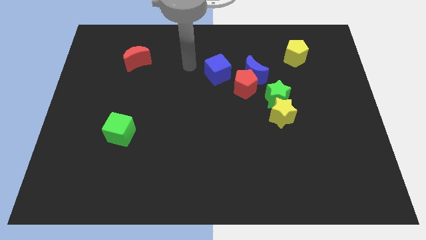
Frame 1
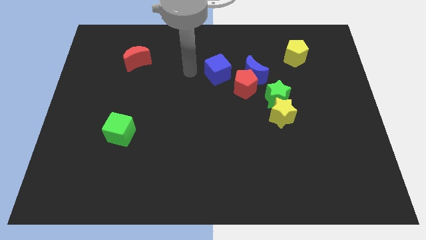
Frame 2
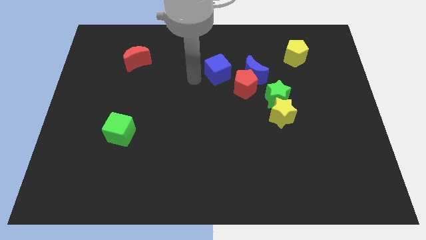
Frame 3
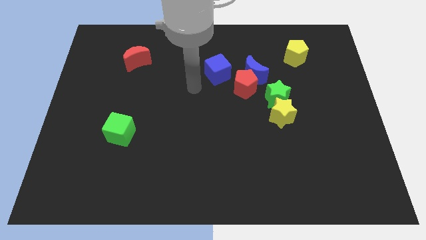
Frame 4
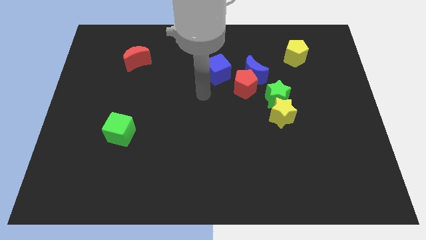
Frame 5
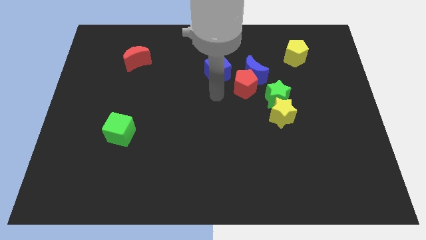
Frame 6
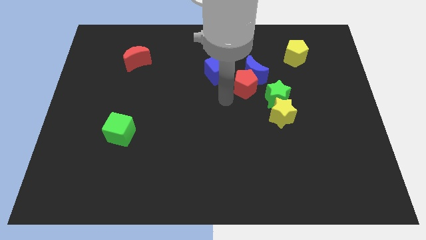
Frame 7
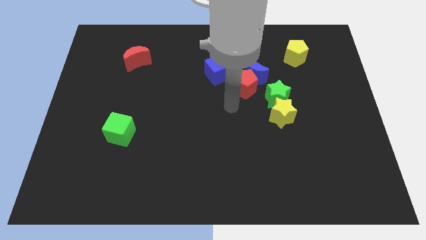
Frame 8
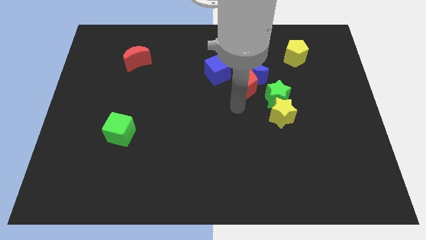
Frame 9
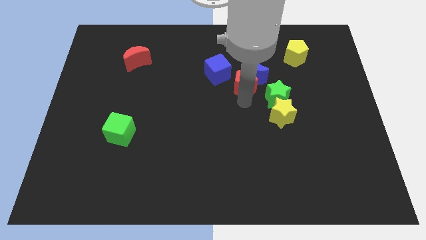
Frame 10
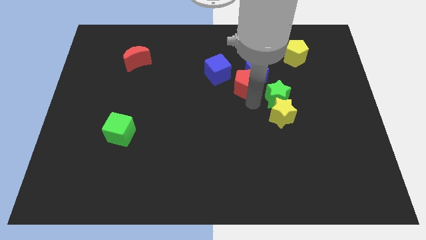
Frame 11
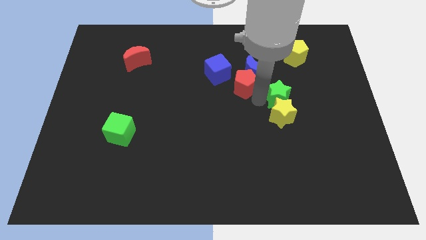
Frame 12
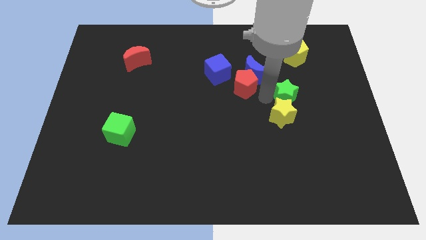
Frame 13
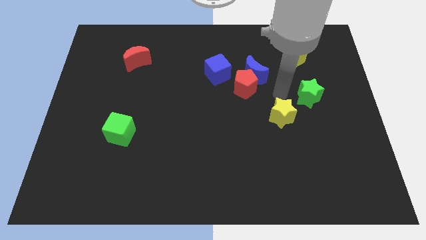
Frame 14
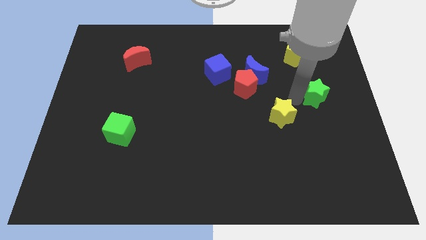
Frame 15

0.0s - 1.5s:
move the yellow star away from the green star

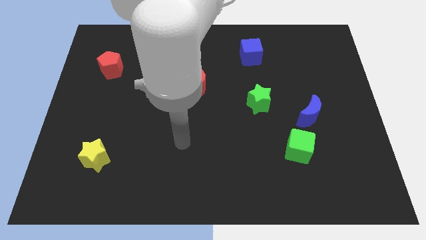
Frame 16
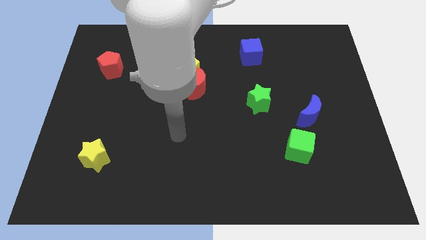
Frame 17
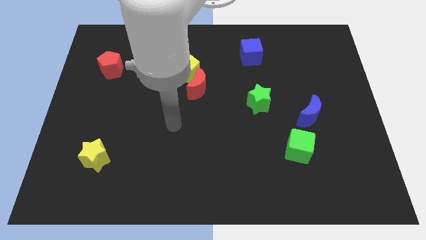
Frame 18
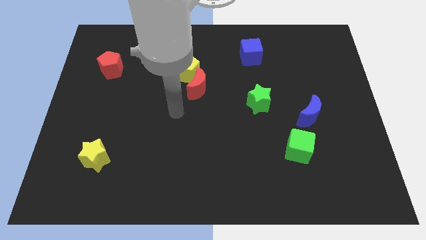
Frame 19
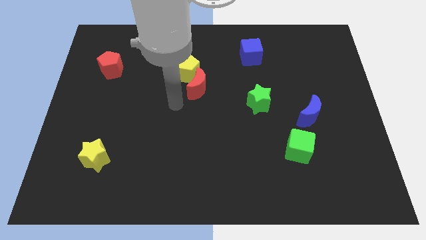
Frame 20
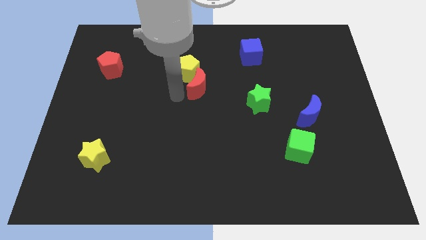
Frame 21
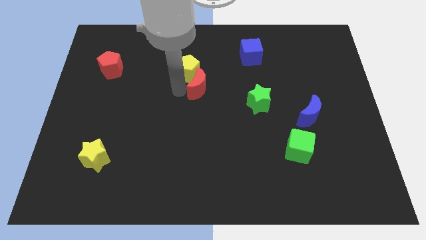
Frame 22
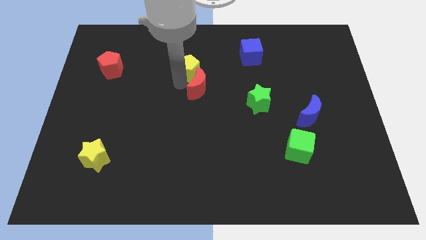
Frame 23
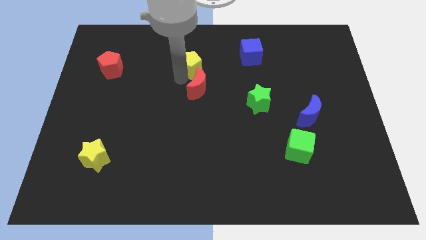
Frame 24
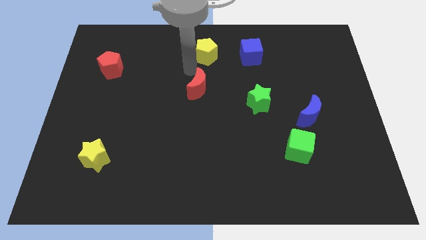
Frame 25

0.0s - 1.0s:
pull the red moon apart from the yellow pentagon

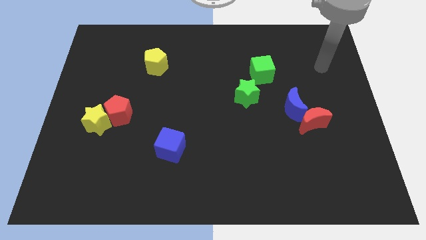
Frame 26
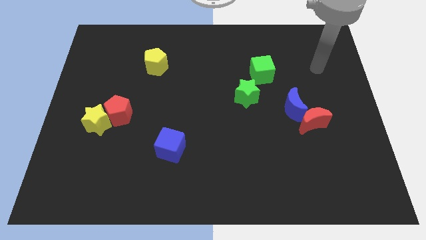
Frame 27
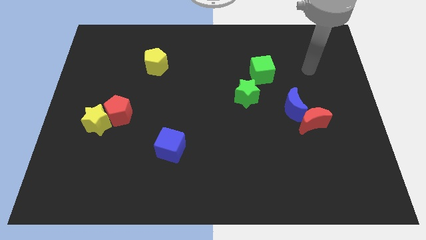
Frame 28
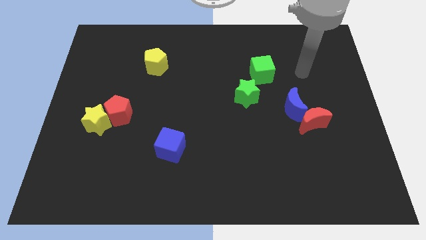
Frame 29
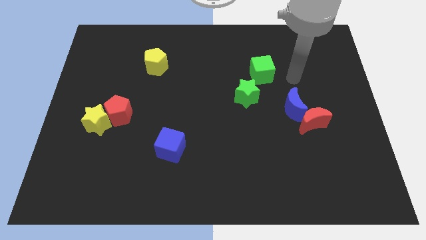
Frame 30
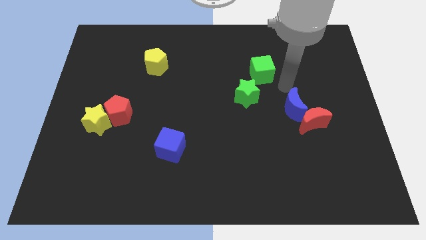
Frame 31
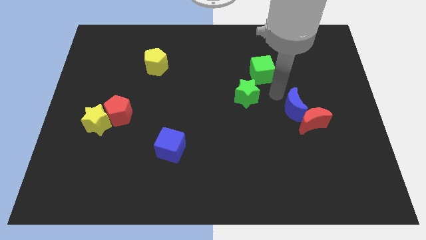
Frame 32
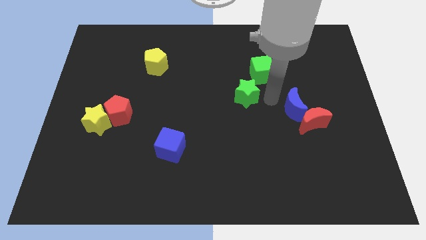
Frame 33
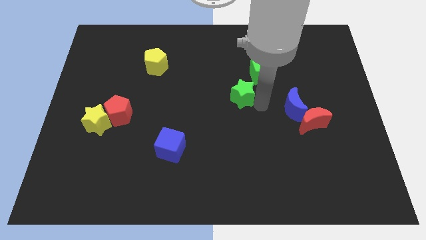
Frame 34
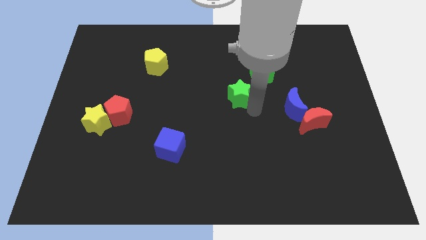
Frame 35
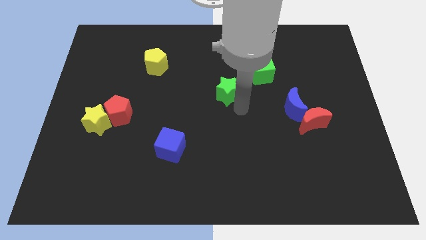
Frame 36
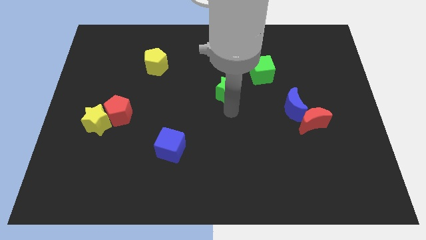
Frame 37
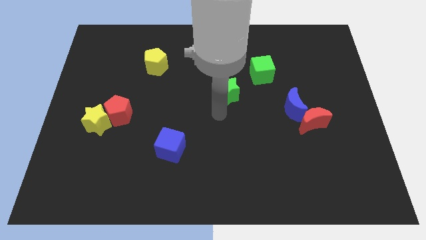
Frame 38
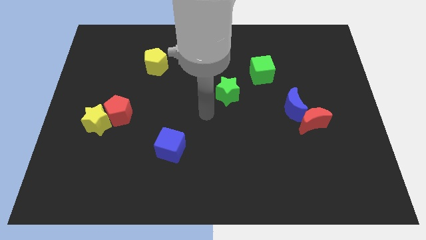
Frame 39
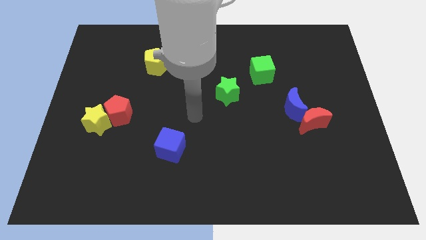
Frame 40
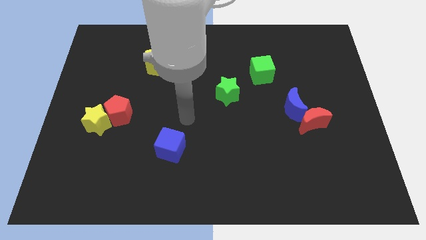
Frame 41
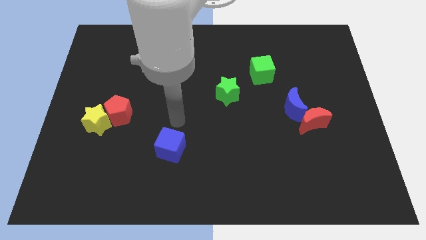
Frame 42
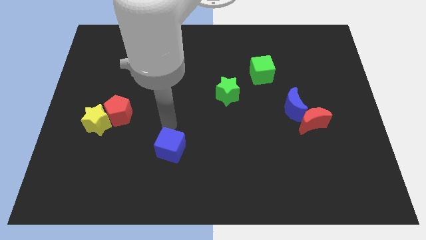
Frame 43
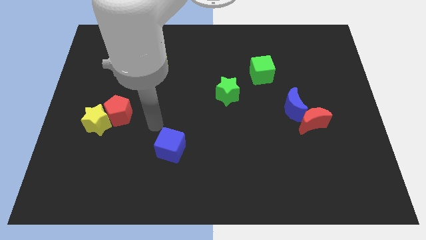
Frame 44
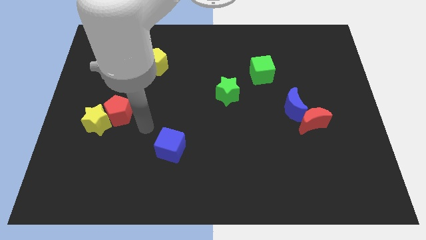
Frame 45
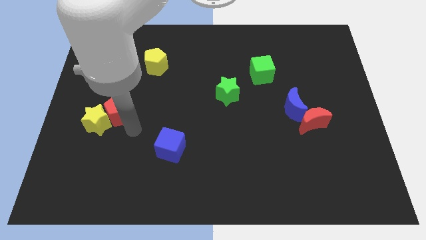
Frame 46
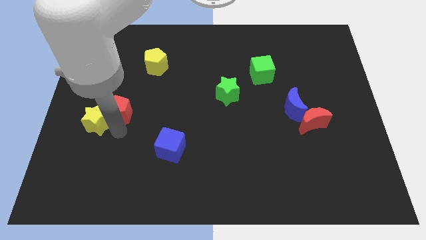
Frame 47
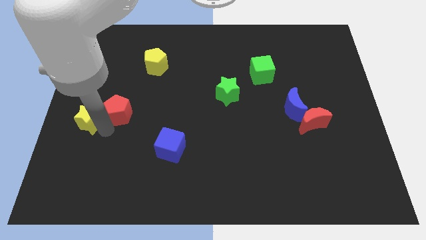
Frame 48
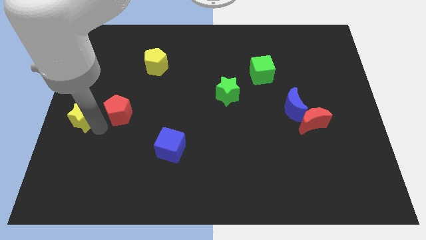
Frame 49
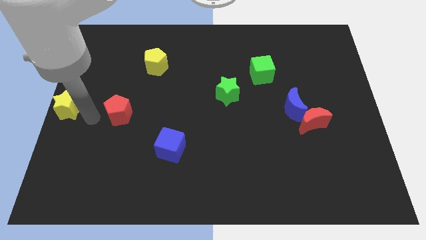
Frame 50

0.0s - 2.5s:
separate the red pentagon from the yellow star

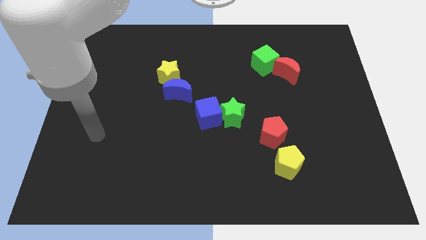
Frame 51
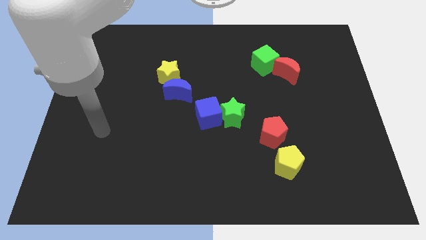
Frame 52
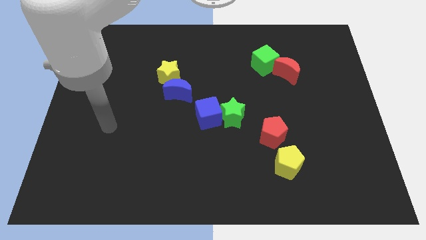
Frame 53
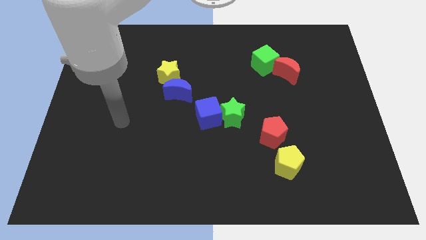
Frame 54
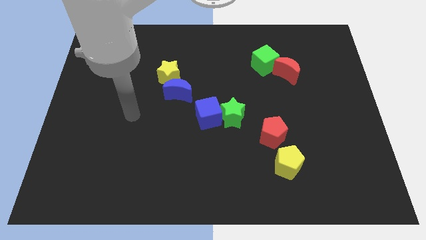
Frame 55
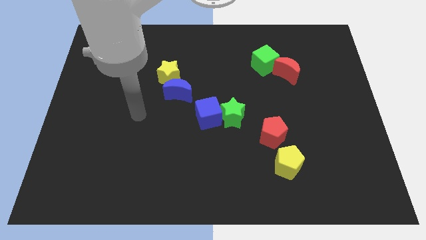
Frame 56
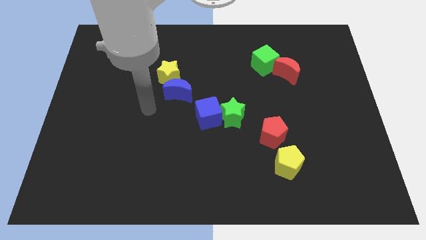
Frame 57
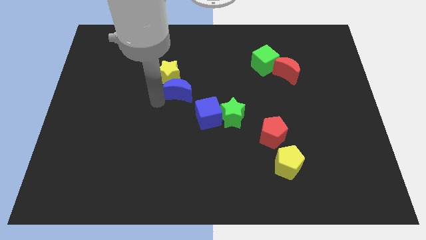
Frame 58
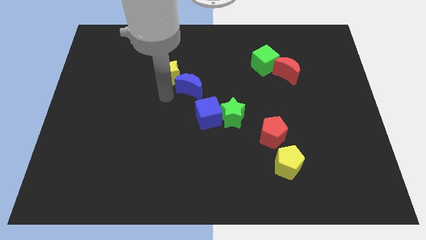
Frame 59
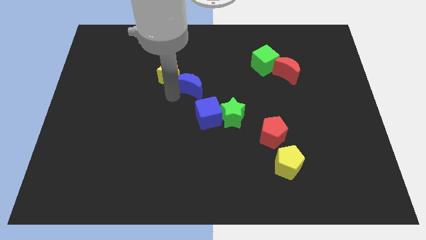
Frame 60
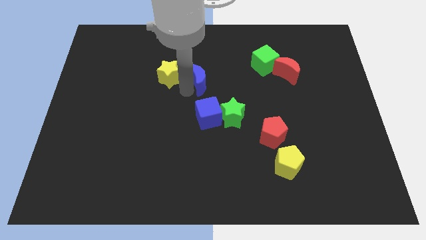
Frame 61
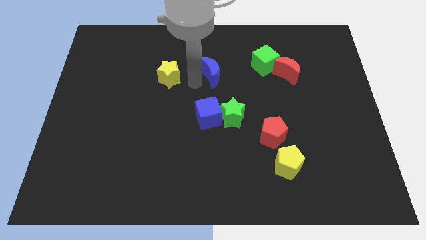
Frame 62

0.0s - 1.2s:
move the yellow star away from the blue moon

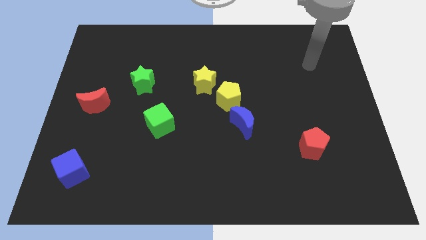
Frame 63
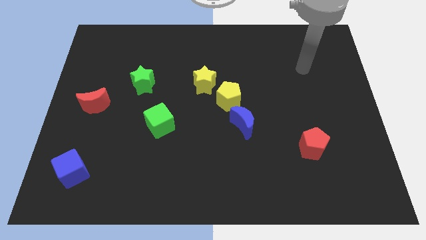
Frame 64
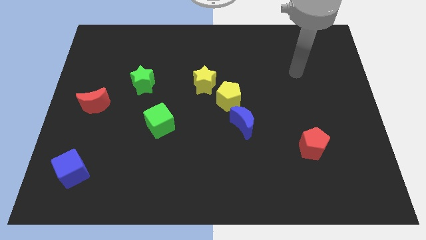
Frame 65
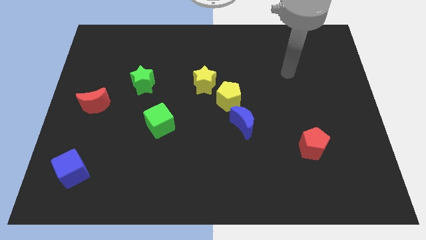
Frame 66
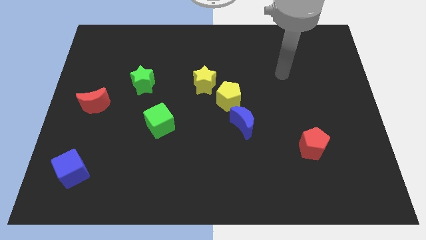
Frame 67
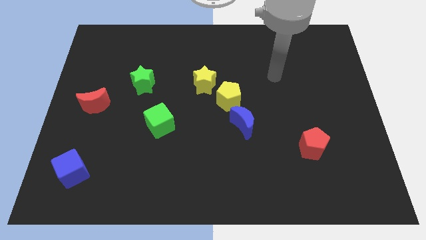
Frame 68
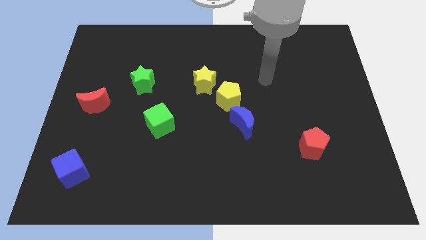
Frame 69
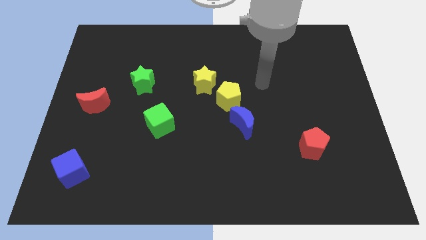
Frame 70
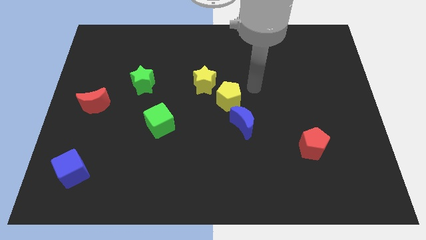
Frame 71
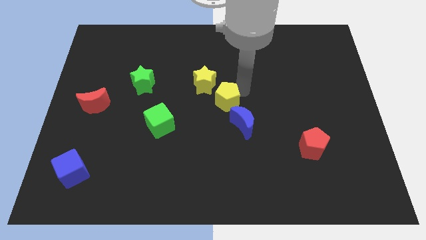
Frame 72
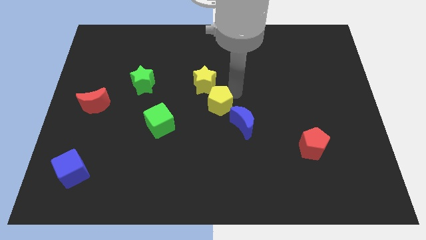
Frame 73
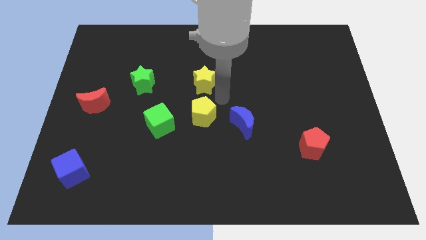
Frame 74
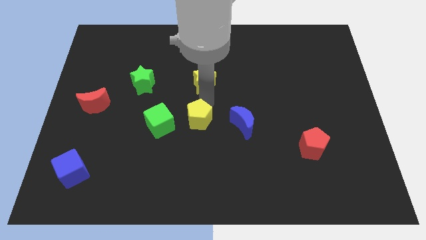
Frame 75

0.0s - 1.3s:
move the yellow star away from the yellow pentagon

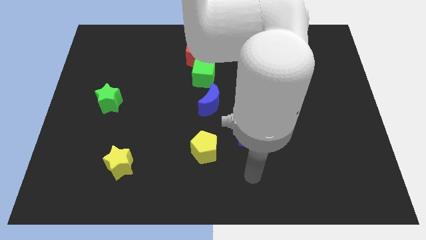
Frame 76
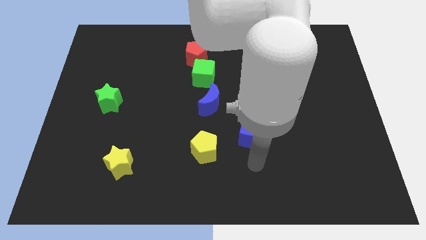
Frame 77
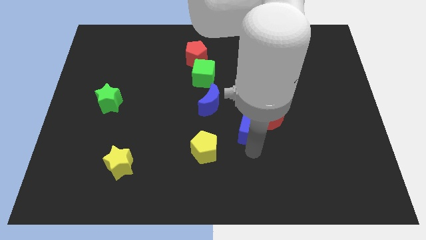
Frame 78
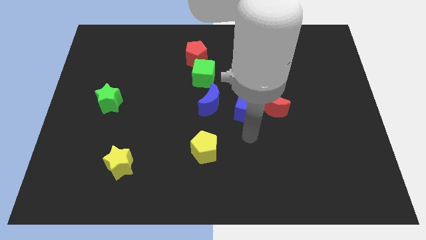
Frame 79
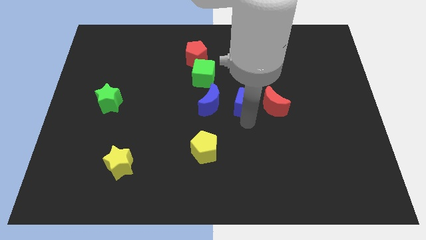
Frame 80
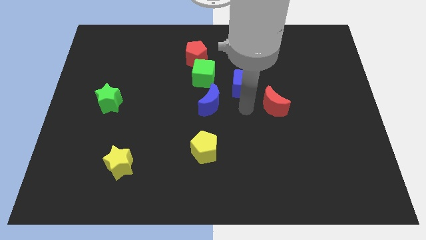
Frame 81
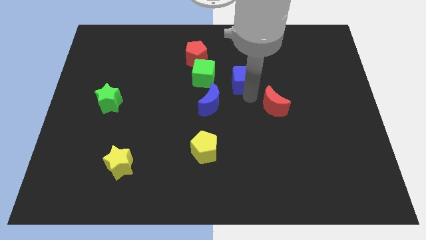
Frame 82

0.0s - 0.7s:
separate the red moon from the blue cube

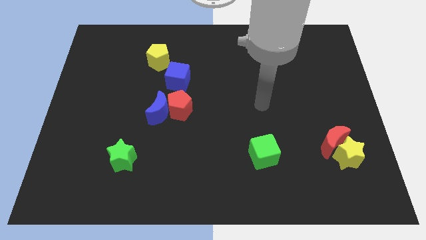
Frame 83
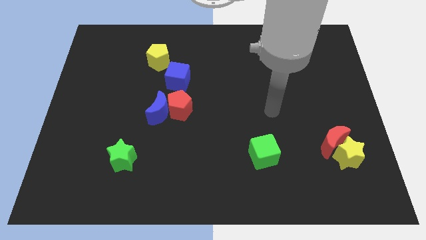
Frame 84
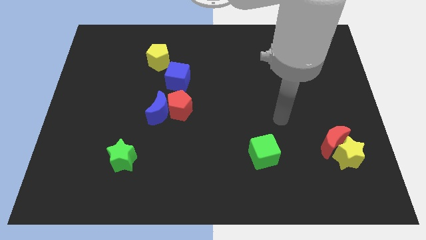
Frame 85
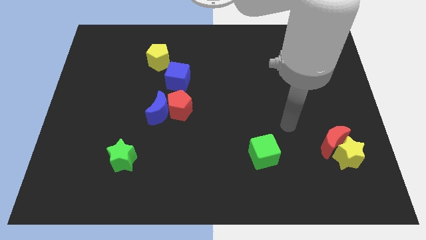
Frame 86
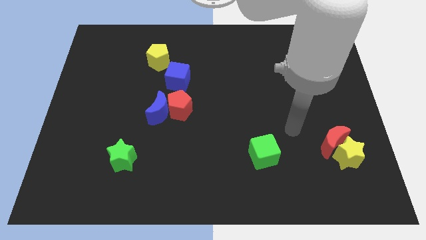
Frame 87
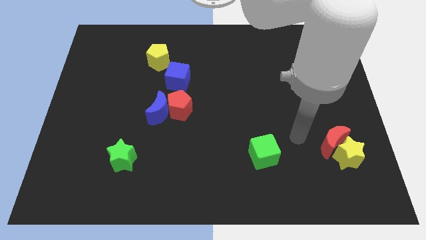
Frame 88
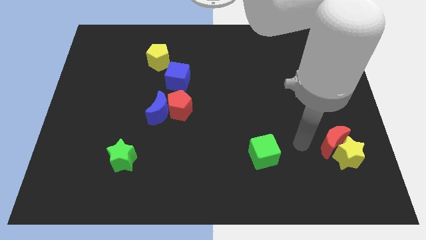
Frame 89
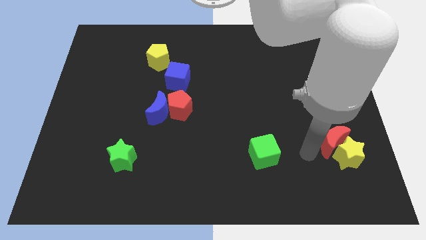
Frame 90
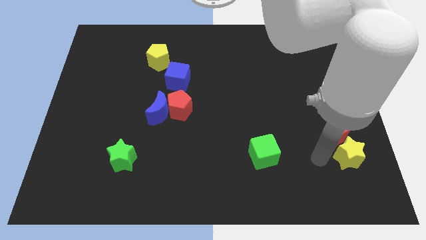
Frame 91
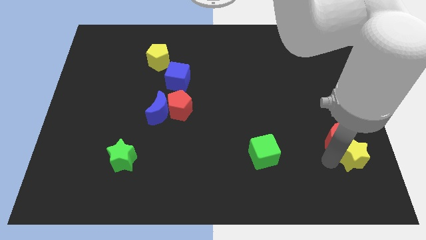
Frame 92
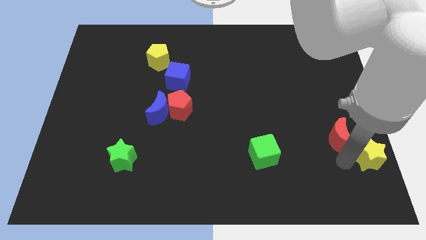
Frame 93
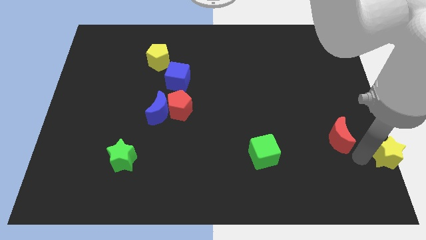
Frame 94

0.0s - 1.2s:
separate the red moon from the yellow star
